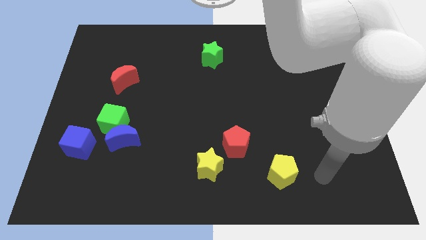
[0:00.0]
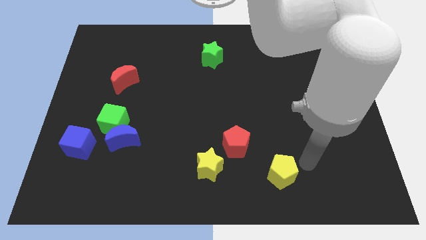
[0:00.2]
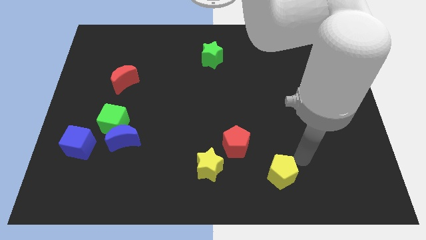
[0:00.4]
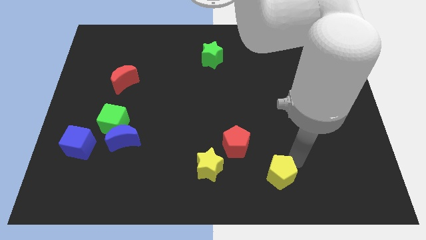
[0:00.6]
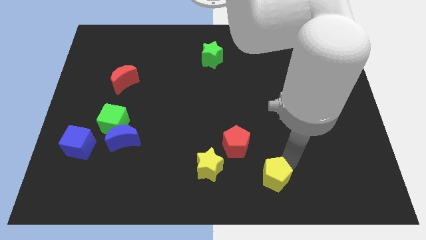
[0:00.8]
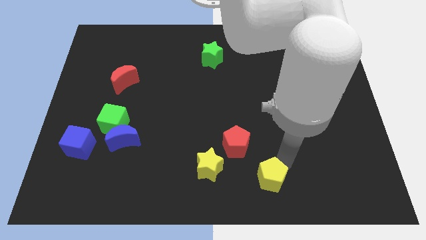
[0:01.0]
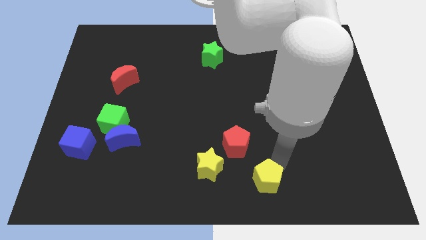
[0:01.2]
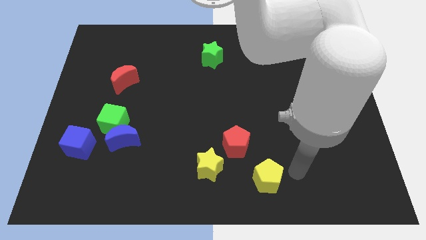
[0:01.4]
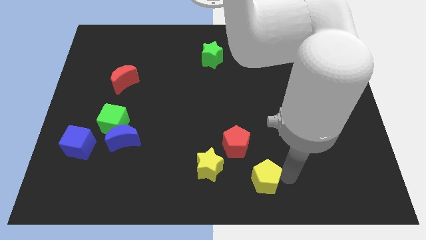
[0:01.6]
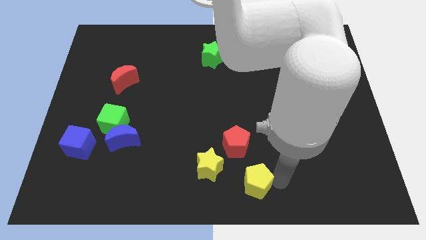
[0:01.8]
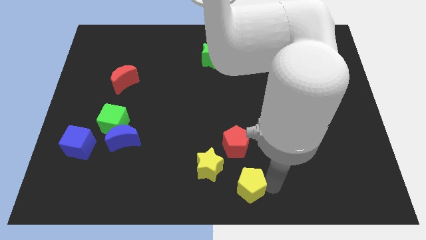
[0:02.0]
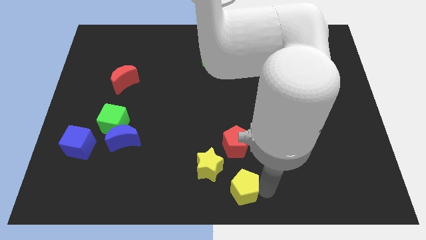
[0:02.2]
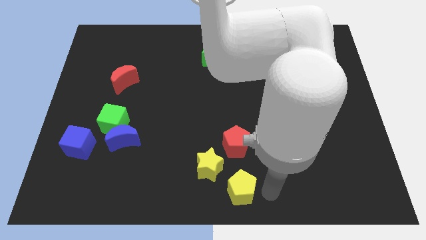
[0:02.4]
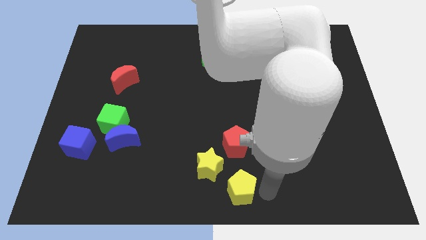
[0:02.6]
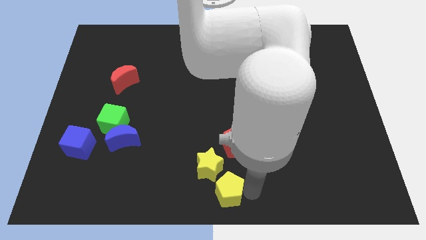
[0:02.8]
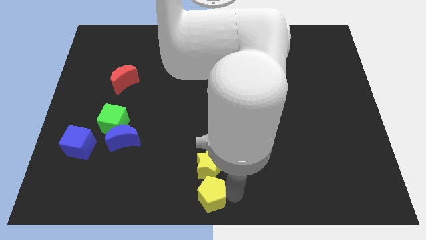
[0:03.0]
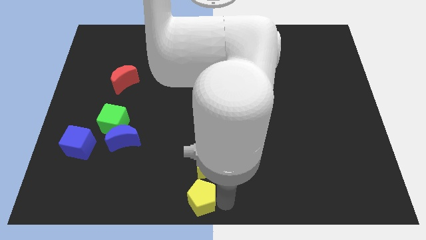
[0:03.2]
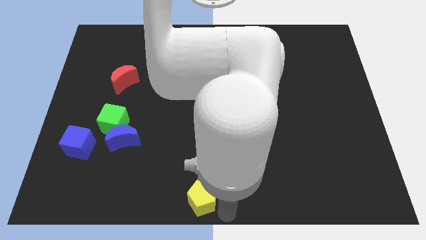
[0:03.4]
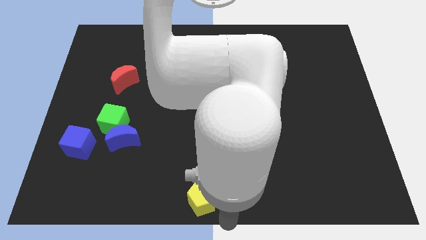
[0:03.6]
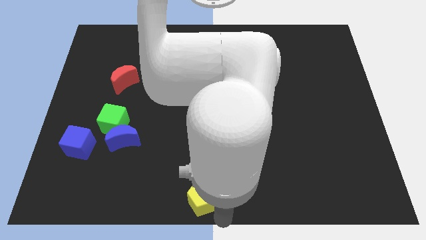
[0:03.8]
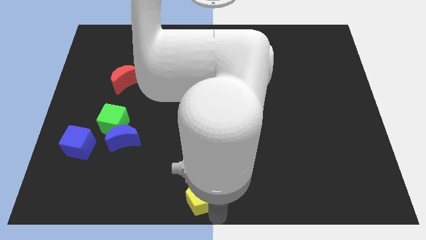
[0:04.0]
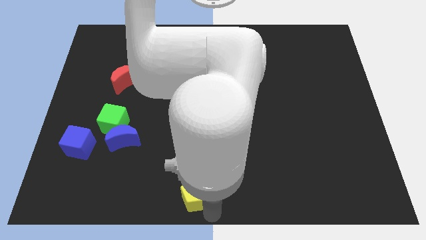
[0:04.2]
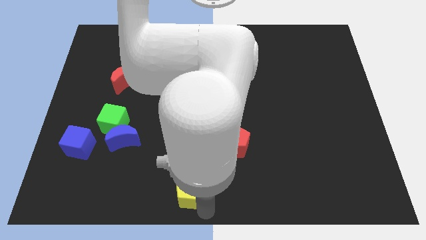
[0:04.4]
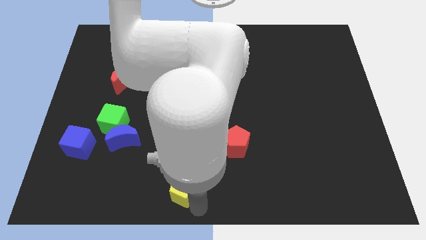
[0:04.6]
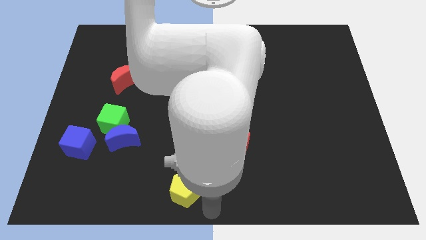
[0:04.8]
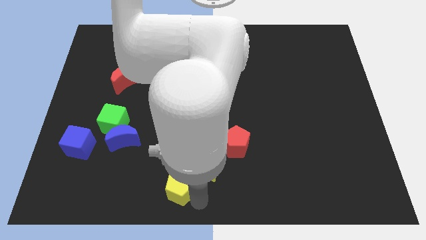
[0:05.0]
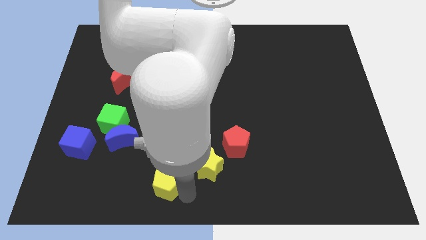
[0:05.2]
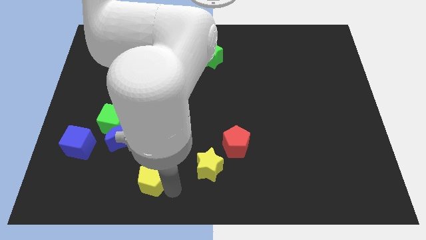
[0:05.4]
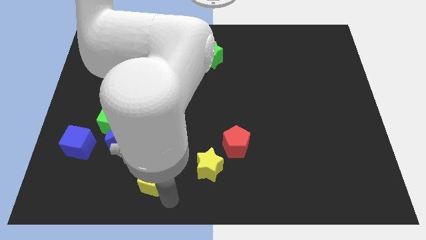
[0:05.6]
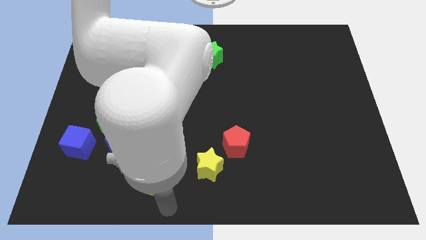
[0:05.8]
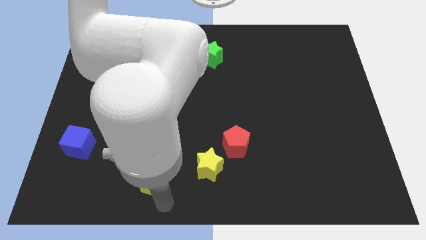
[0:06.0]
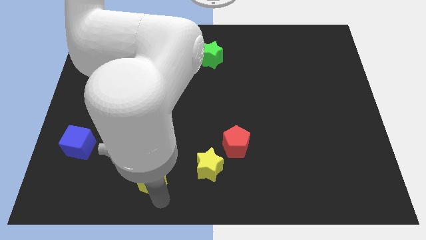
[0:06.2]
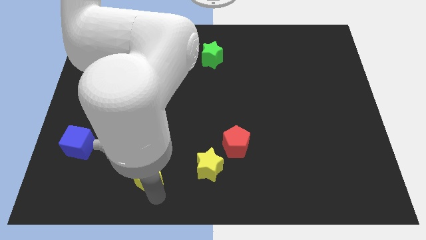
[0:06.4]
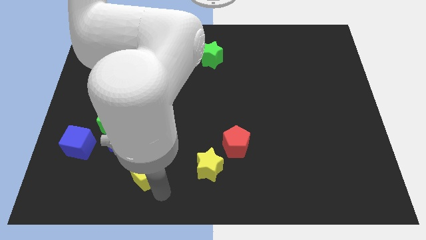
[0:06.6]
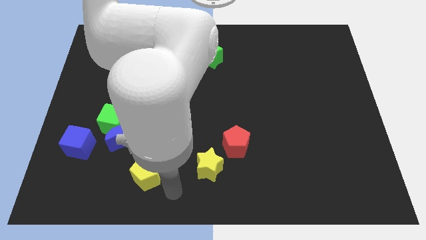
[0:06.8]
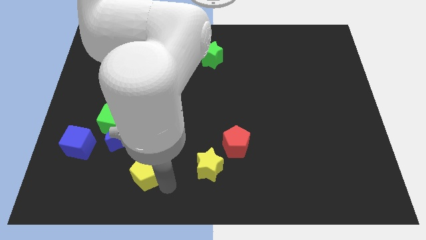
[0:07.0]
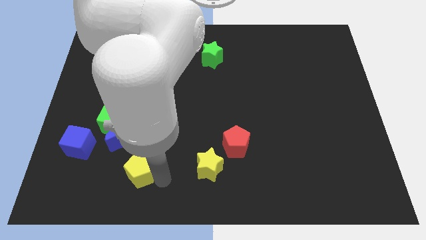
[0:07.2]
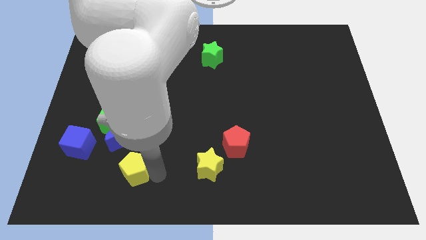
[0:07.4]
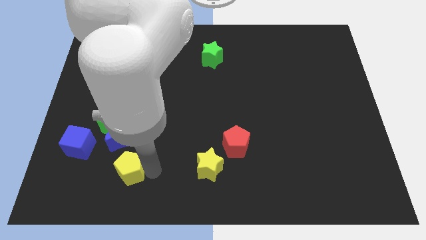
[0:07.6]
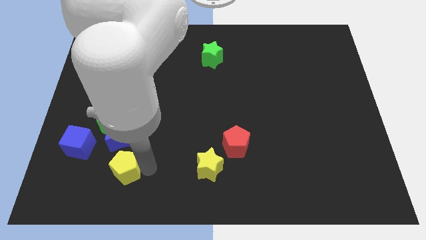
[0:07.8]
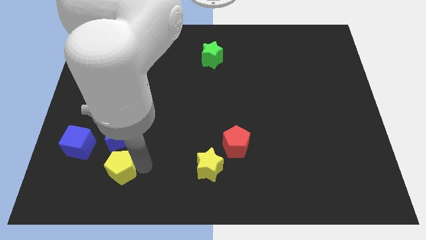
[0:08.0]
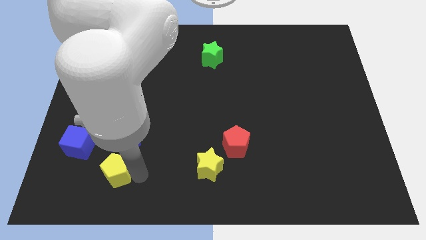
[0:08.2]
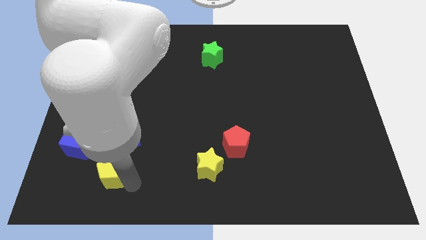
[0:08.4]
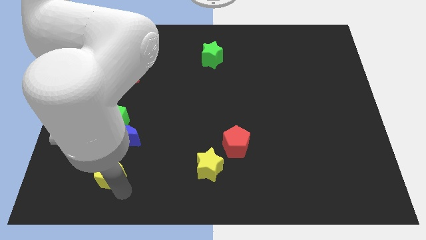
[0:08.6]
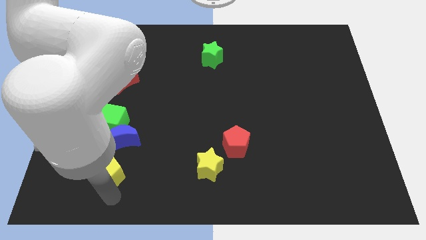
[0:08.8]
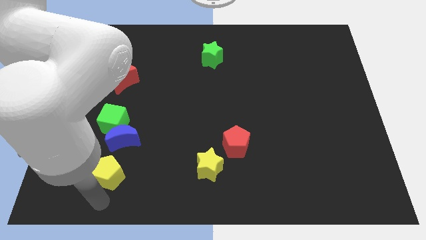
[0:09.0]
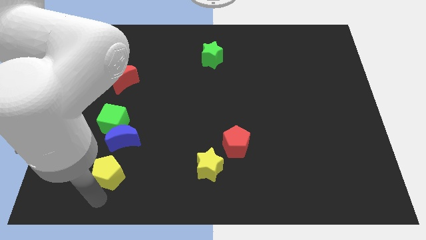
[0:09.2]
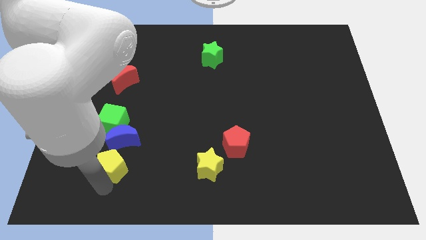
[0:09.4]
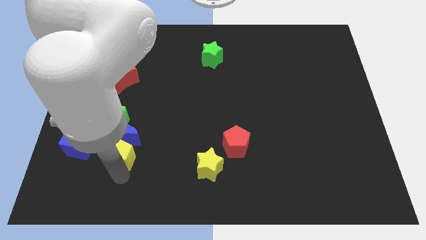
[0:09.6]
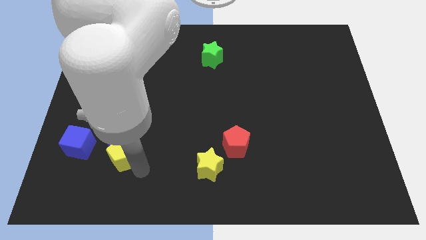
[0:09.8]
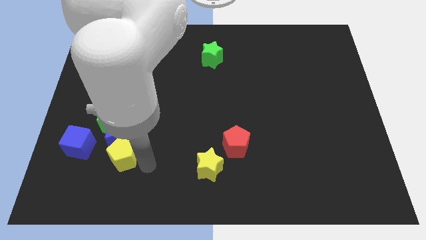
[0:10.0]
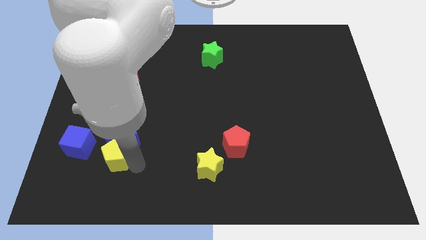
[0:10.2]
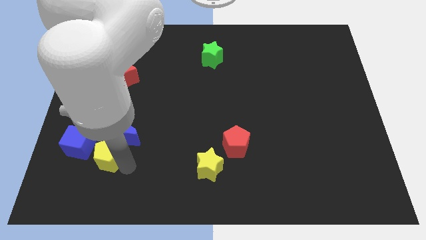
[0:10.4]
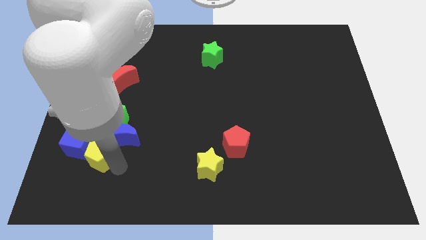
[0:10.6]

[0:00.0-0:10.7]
move the yellow pentagon close to the blue cube

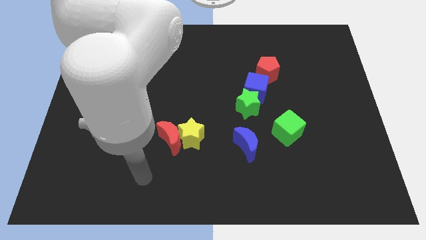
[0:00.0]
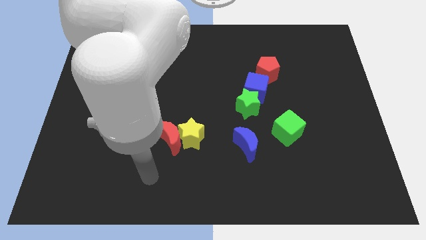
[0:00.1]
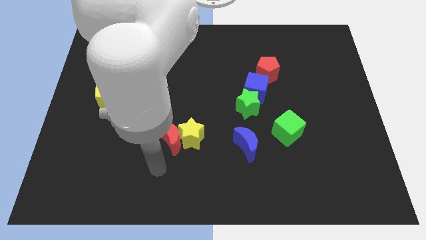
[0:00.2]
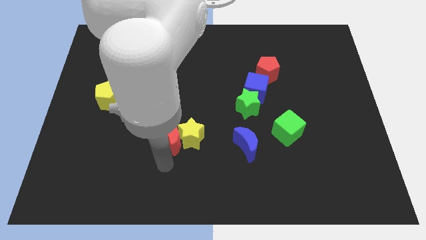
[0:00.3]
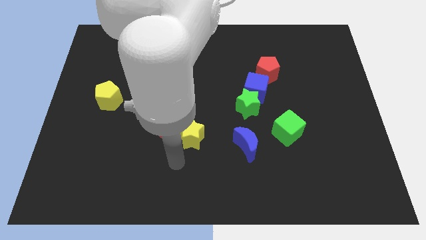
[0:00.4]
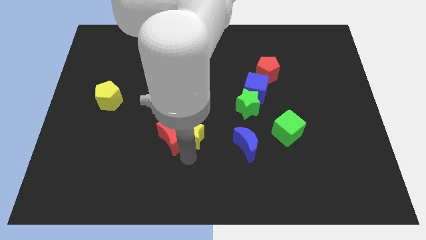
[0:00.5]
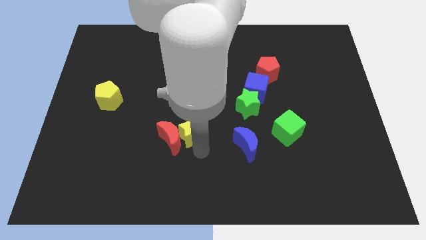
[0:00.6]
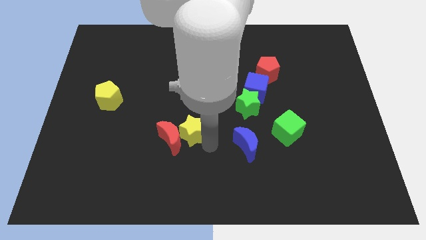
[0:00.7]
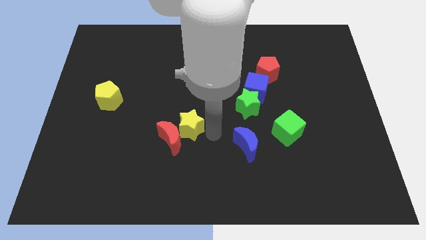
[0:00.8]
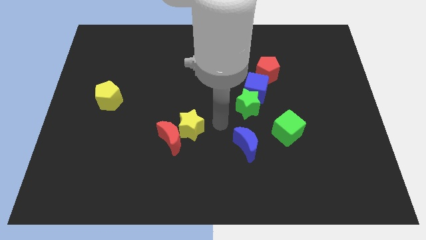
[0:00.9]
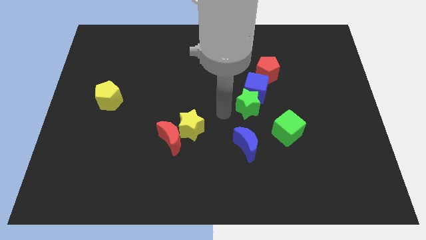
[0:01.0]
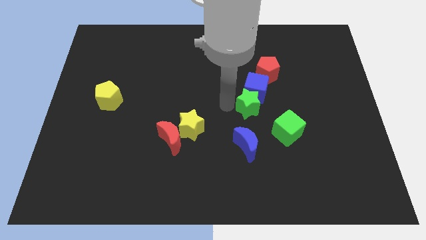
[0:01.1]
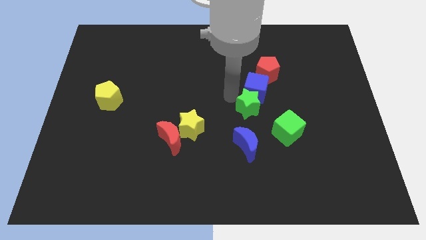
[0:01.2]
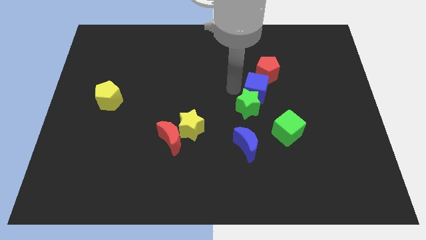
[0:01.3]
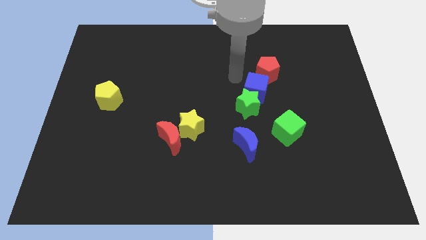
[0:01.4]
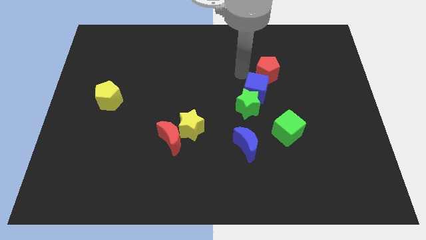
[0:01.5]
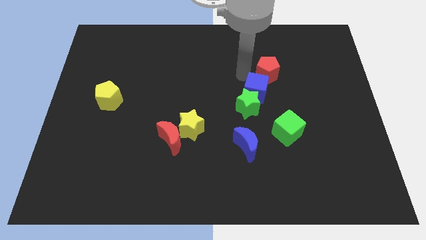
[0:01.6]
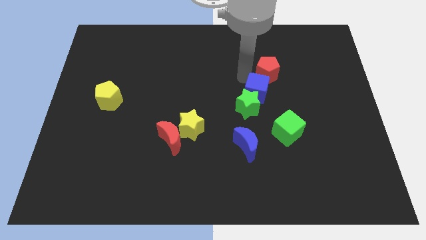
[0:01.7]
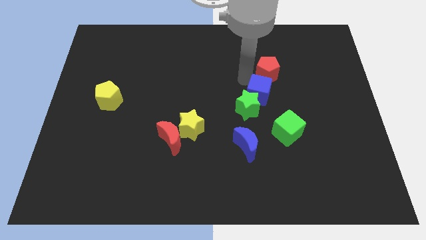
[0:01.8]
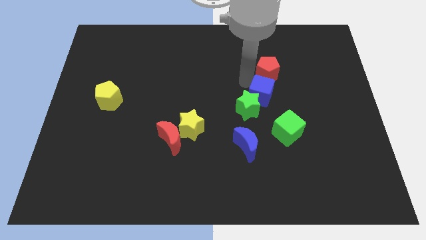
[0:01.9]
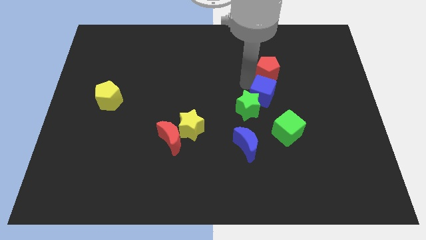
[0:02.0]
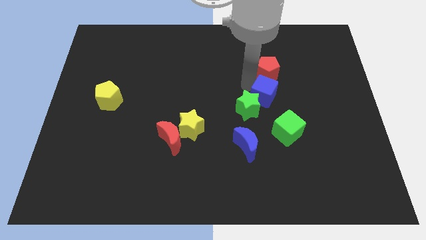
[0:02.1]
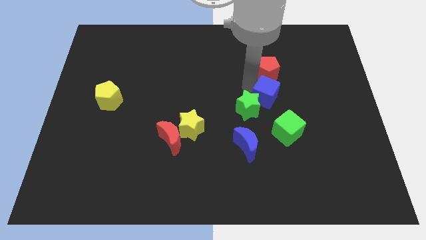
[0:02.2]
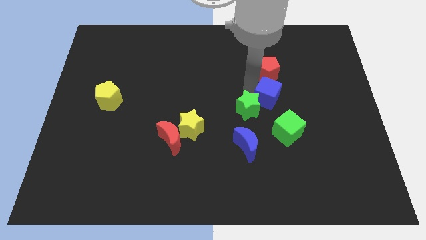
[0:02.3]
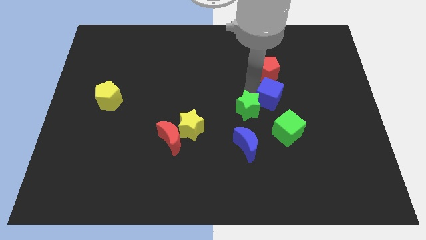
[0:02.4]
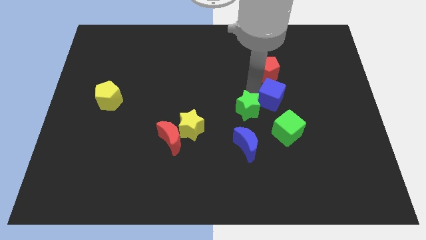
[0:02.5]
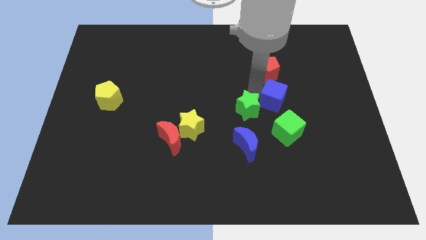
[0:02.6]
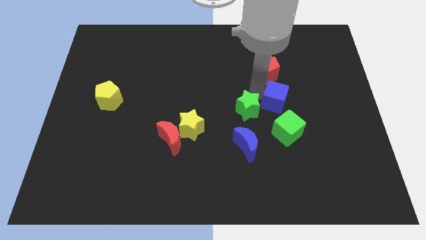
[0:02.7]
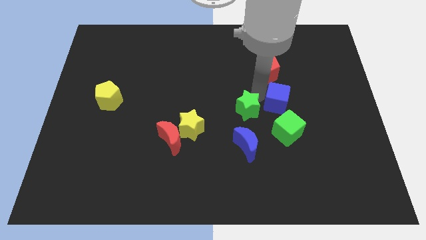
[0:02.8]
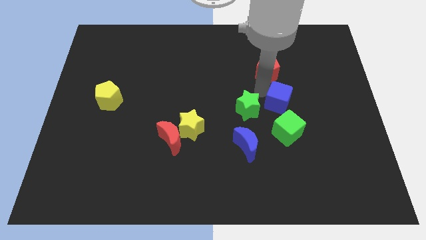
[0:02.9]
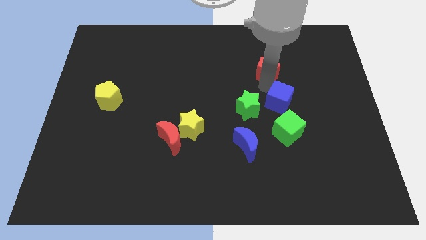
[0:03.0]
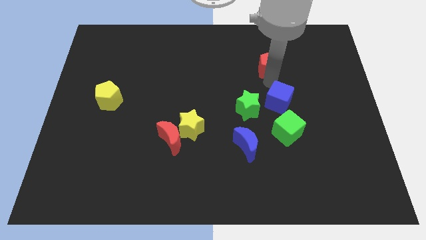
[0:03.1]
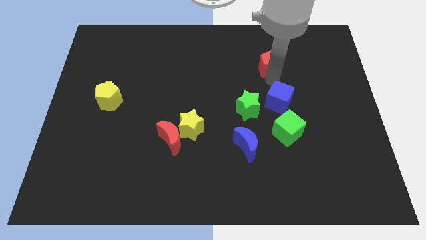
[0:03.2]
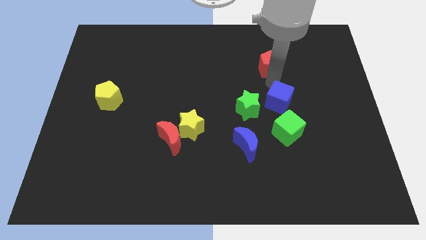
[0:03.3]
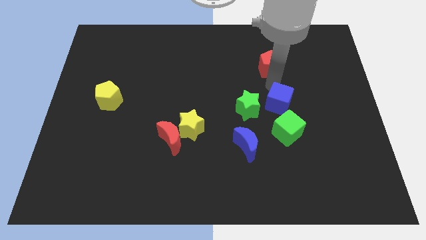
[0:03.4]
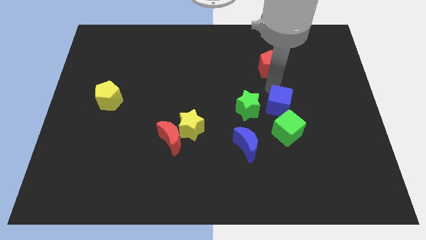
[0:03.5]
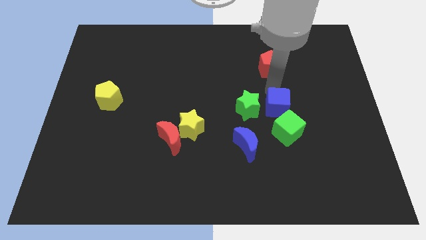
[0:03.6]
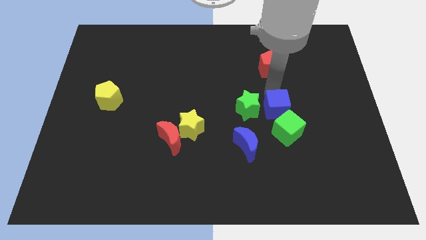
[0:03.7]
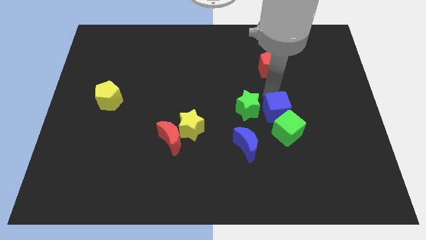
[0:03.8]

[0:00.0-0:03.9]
put the blue cube to the green cube
